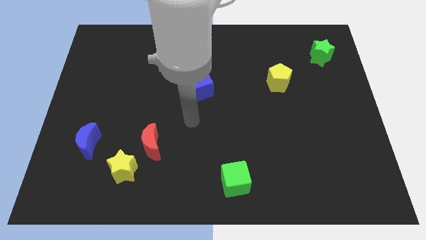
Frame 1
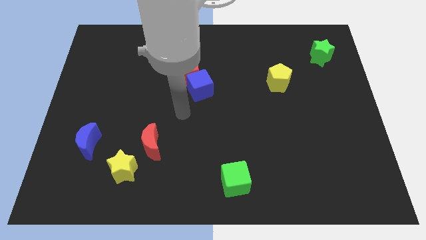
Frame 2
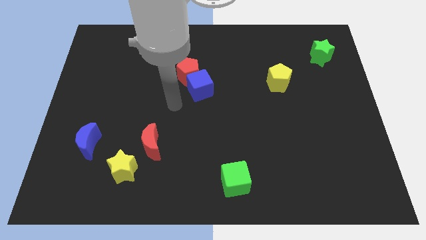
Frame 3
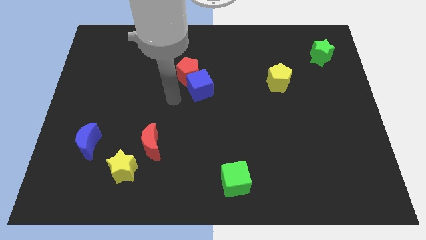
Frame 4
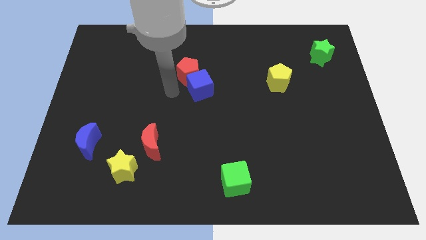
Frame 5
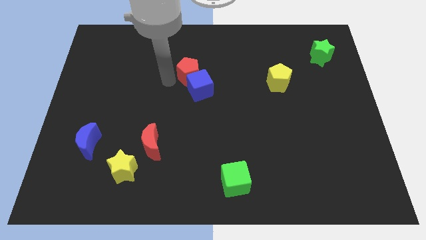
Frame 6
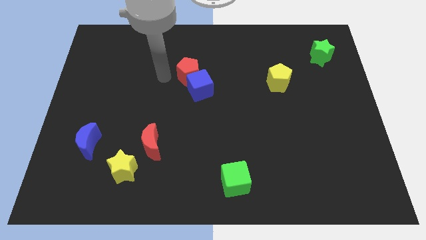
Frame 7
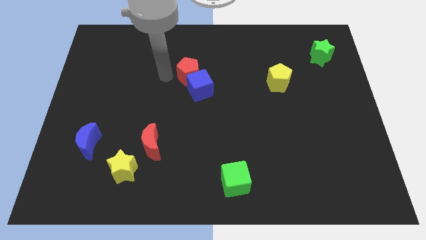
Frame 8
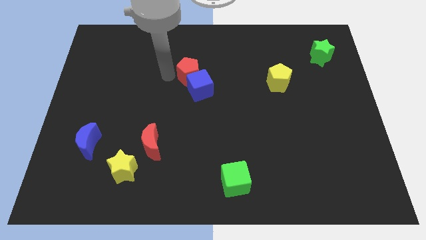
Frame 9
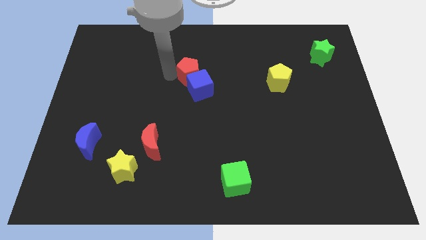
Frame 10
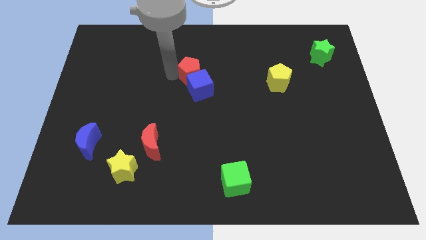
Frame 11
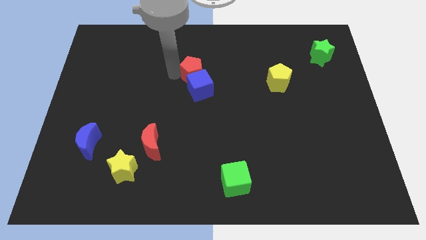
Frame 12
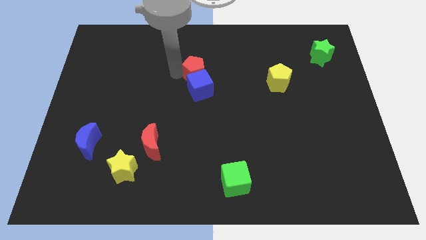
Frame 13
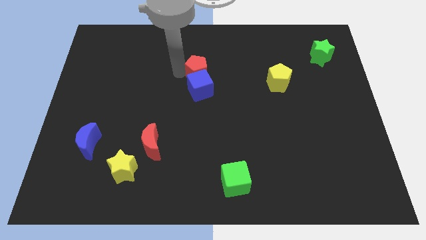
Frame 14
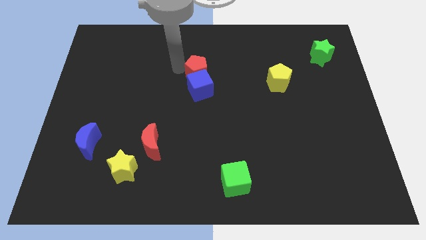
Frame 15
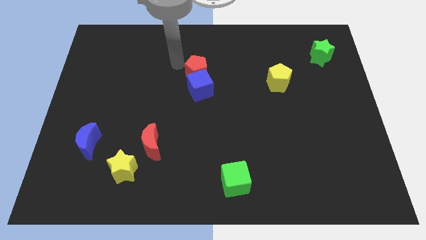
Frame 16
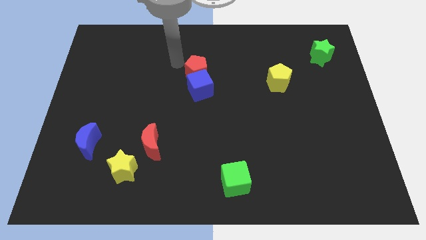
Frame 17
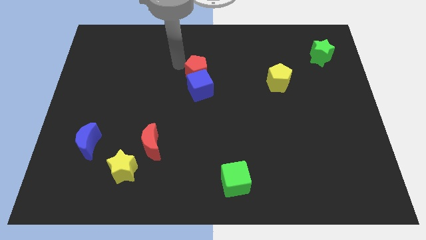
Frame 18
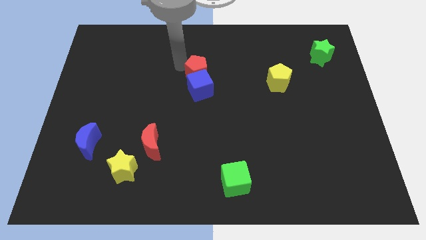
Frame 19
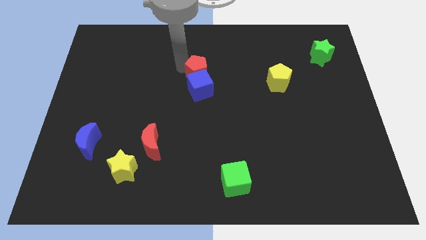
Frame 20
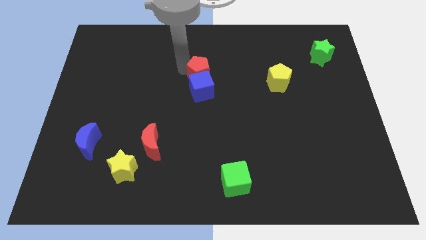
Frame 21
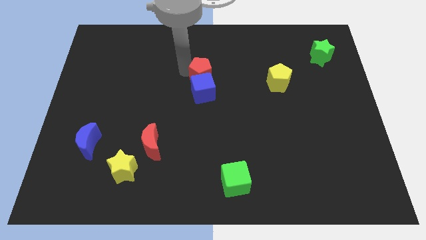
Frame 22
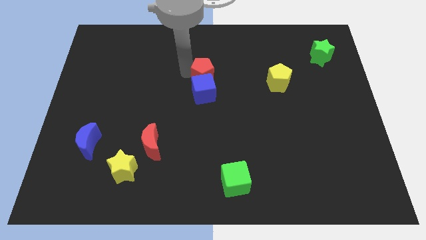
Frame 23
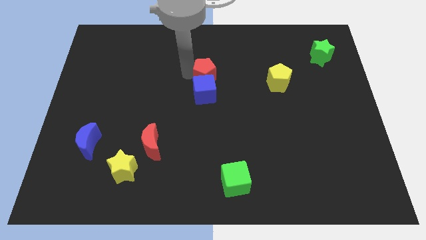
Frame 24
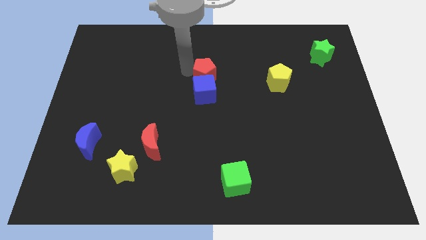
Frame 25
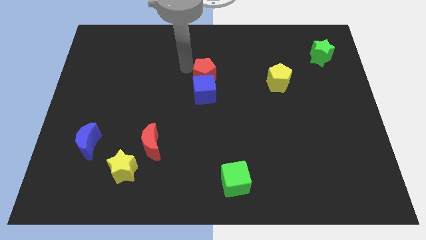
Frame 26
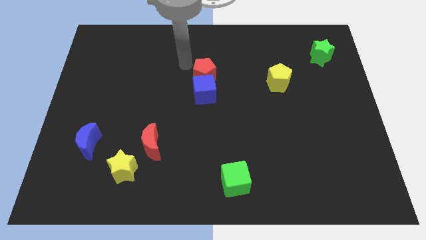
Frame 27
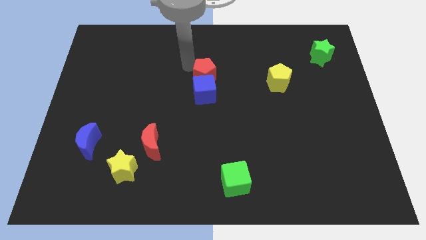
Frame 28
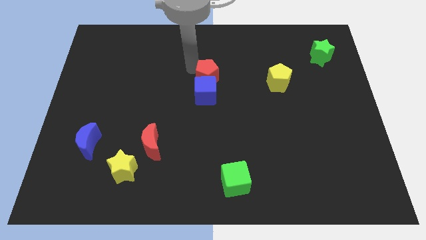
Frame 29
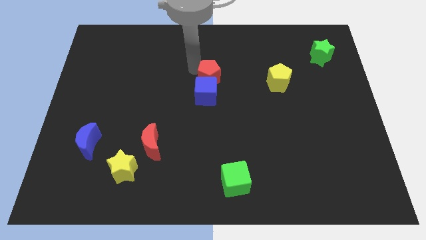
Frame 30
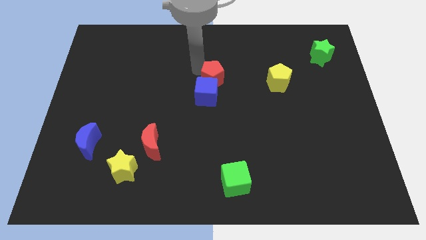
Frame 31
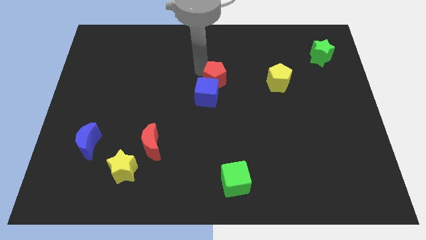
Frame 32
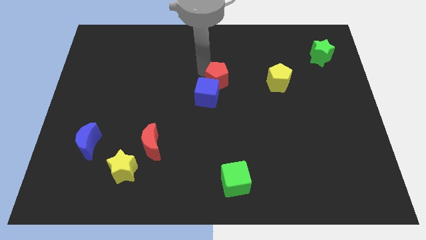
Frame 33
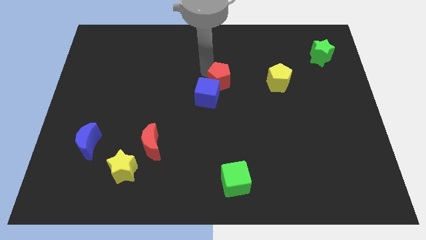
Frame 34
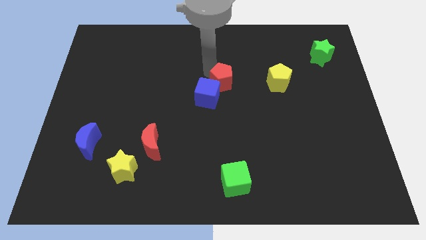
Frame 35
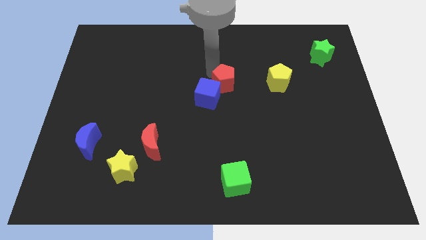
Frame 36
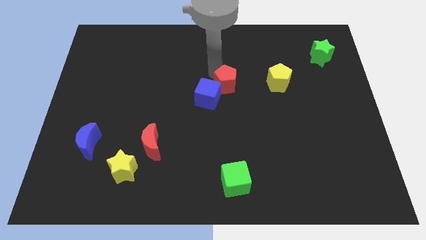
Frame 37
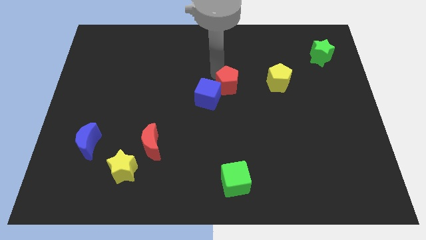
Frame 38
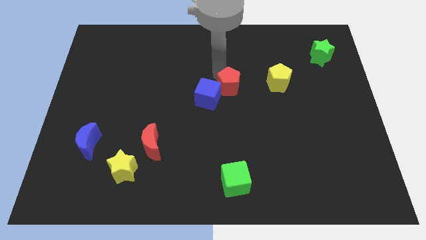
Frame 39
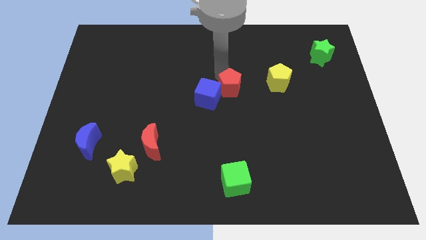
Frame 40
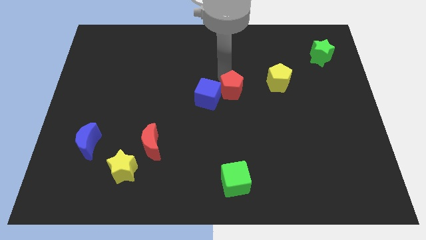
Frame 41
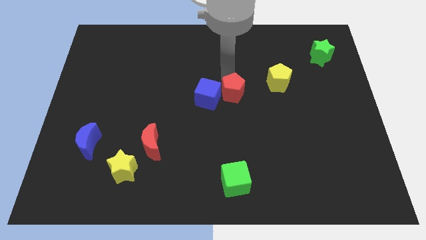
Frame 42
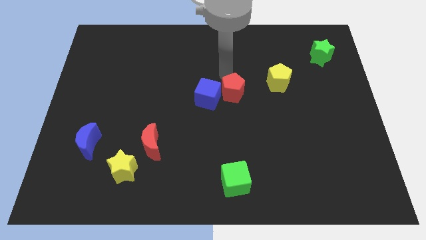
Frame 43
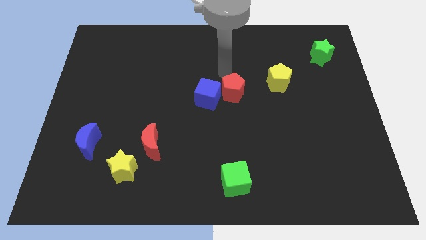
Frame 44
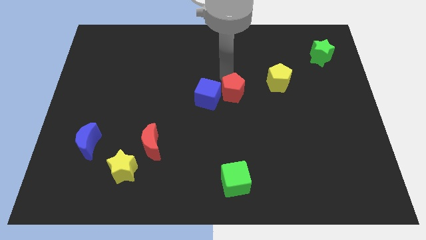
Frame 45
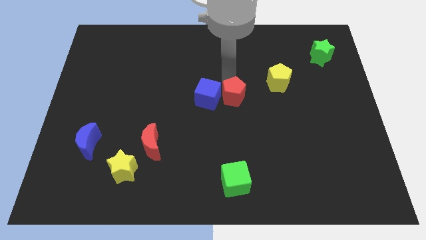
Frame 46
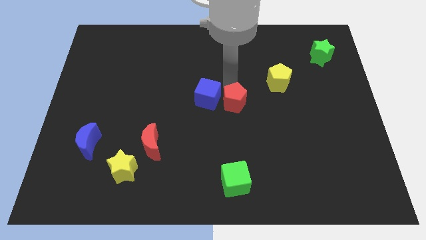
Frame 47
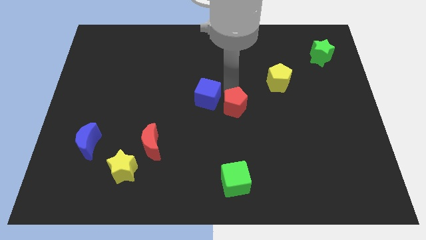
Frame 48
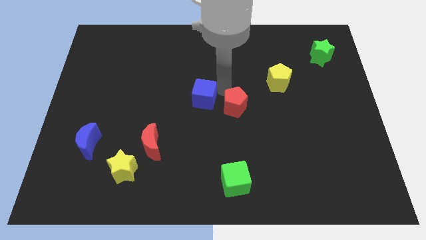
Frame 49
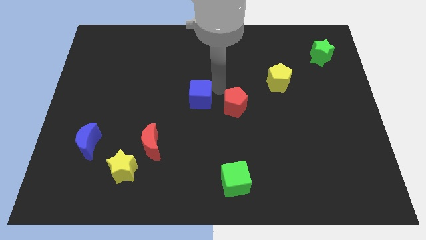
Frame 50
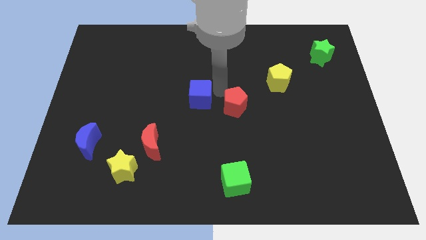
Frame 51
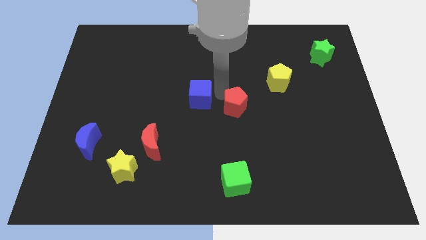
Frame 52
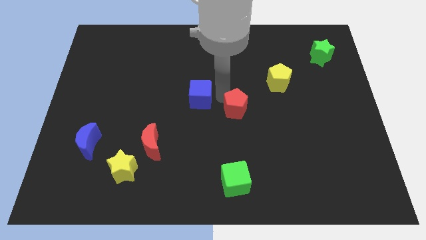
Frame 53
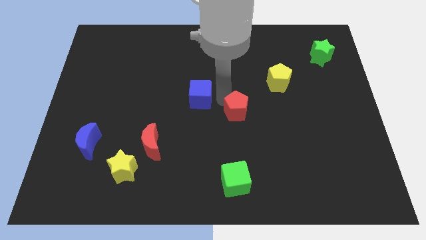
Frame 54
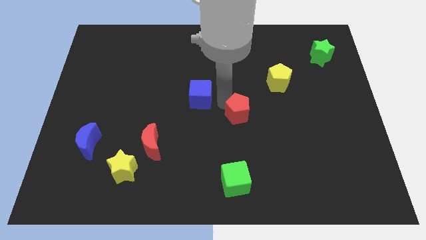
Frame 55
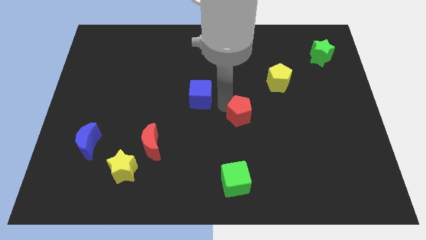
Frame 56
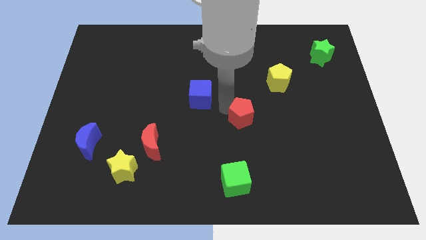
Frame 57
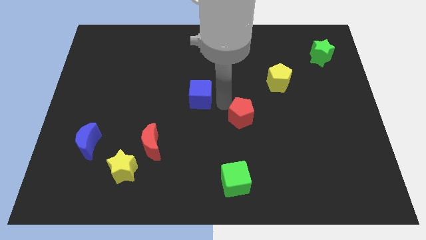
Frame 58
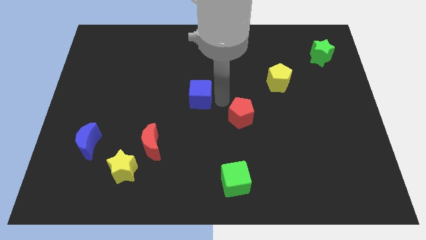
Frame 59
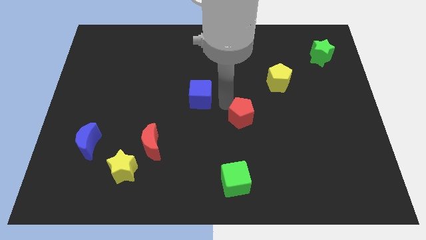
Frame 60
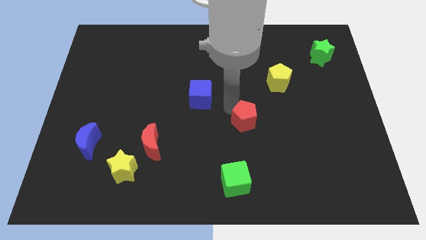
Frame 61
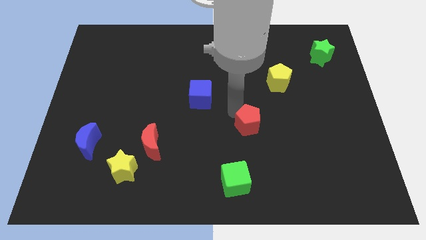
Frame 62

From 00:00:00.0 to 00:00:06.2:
push the red pentagon down and then to the right

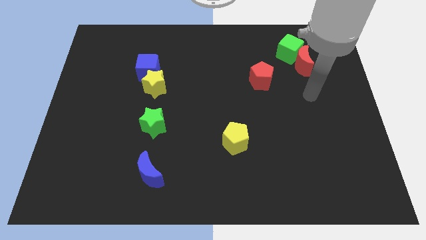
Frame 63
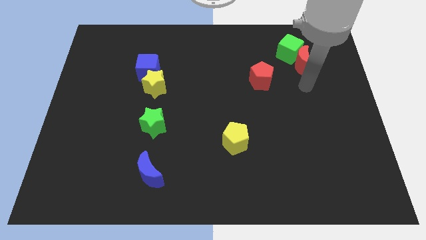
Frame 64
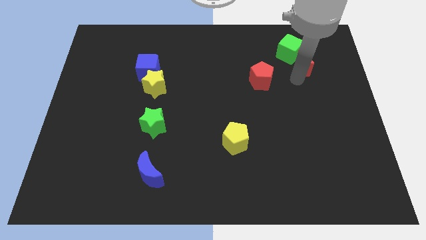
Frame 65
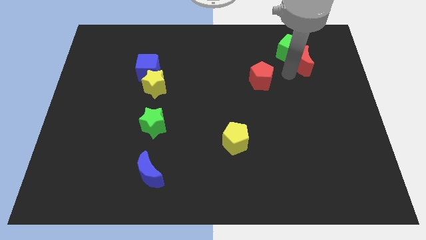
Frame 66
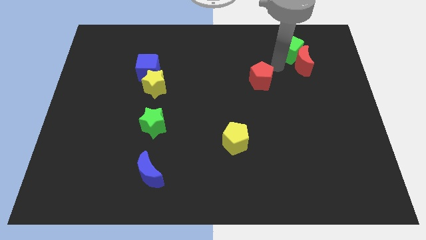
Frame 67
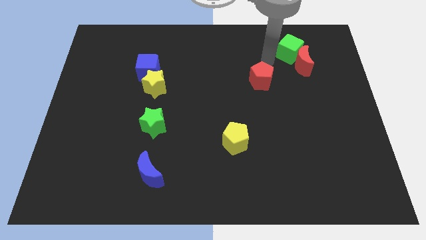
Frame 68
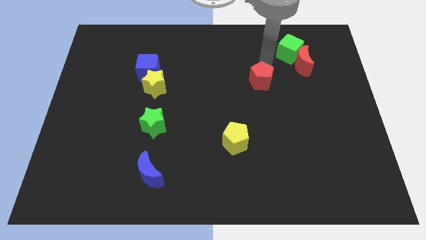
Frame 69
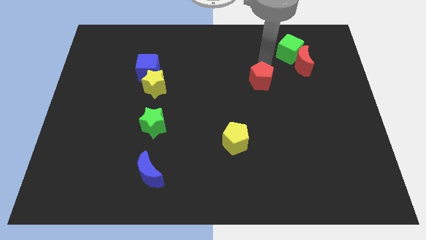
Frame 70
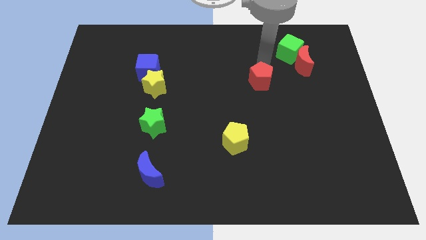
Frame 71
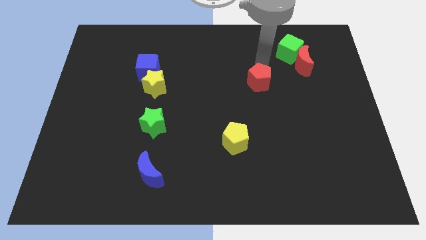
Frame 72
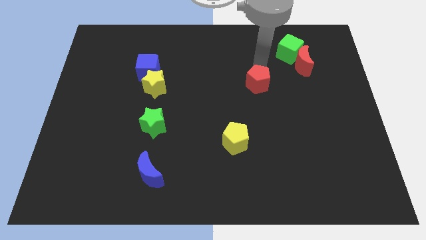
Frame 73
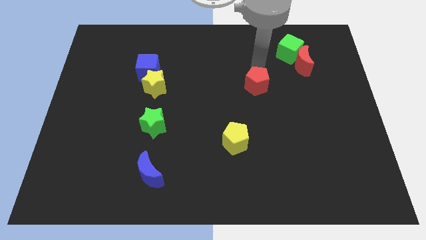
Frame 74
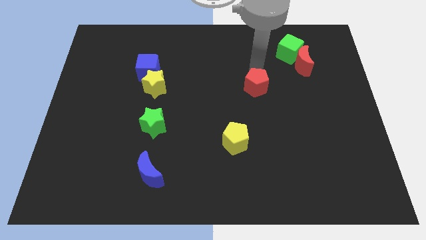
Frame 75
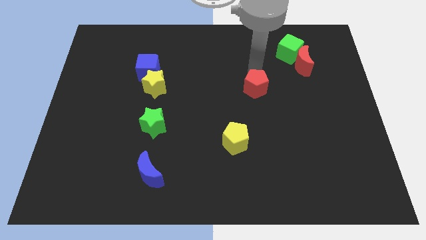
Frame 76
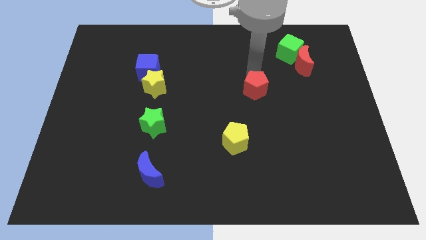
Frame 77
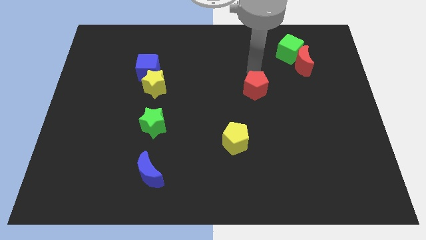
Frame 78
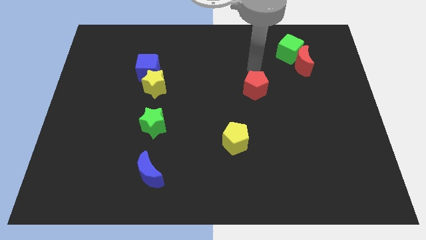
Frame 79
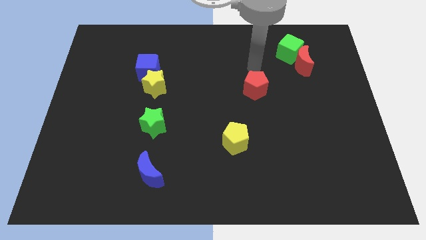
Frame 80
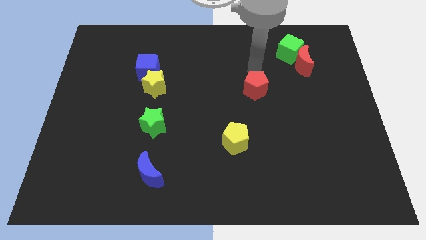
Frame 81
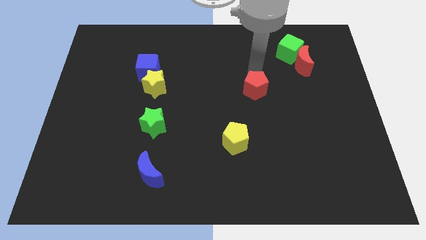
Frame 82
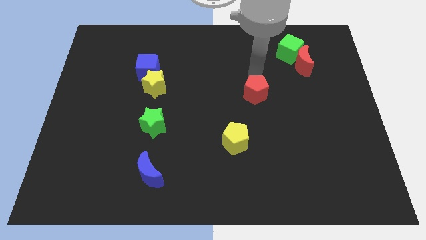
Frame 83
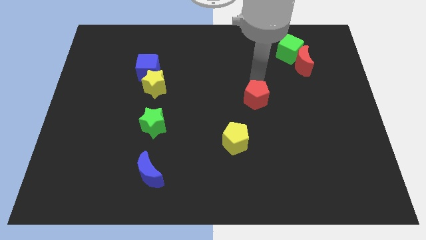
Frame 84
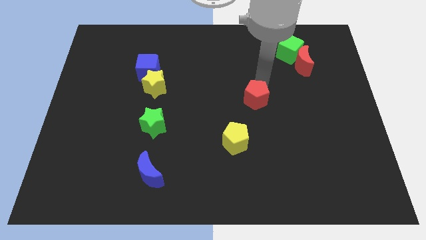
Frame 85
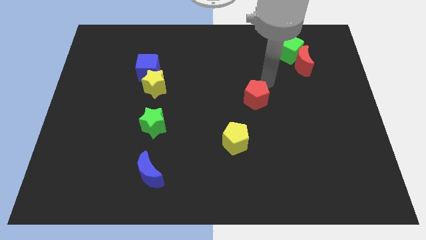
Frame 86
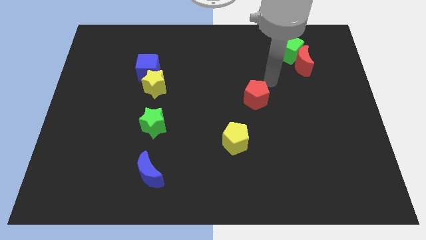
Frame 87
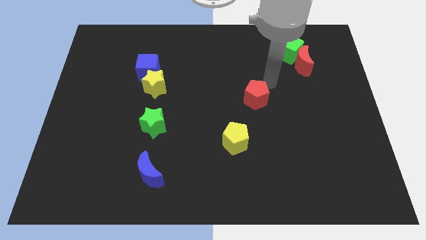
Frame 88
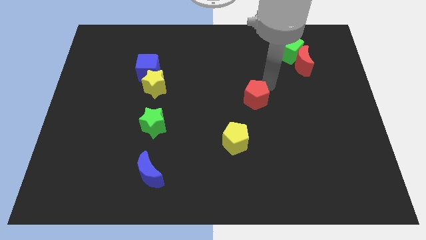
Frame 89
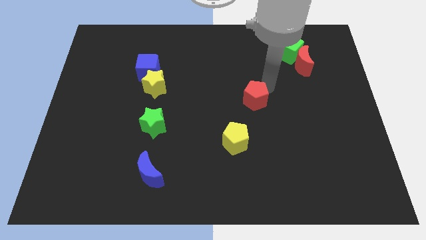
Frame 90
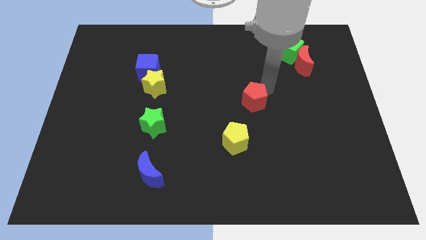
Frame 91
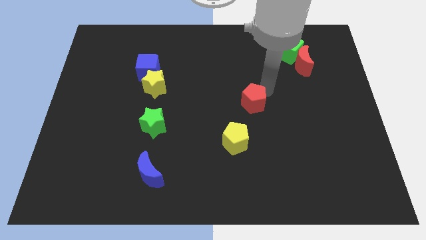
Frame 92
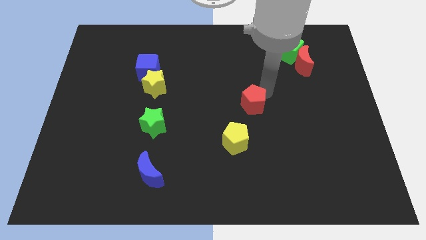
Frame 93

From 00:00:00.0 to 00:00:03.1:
push the red pentagon a bit downwards and left
